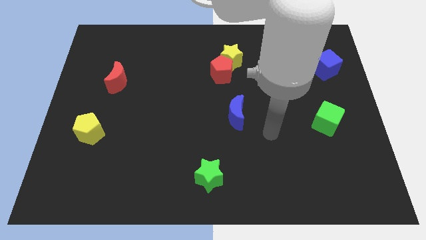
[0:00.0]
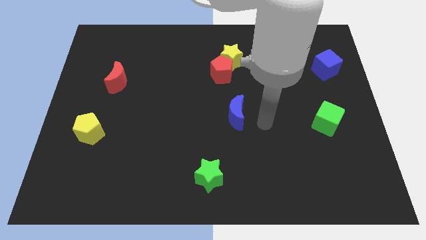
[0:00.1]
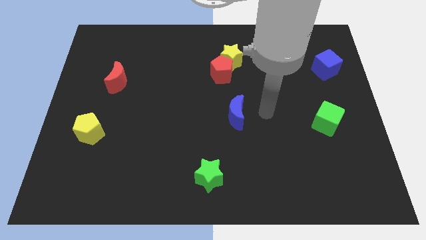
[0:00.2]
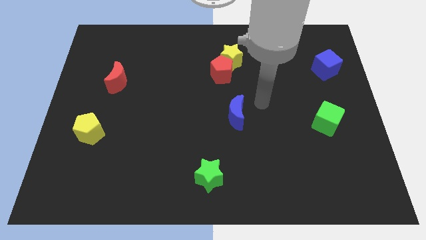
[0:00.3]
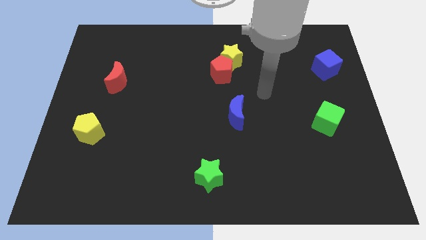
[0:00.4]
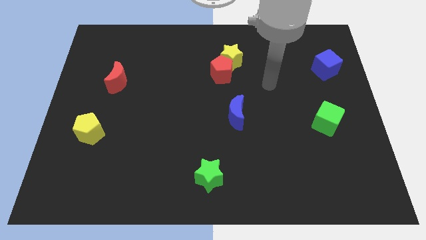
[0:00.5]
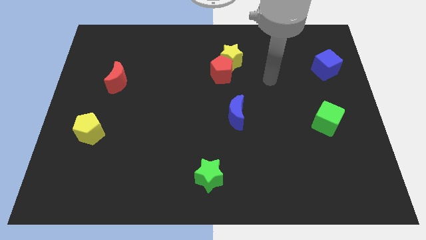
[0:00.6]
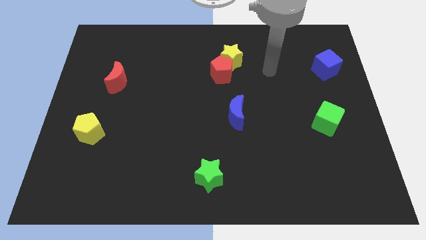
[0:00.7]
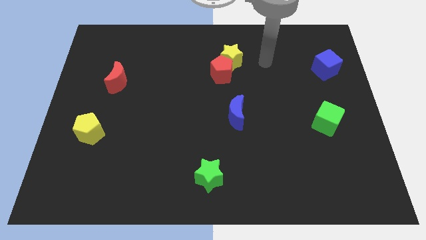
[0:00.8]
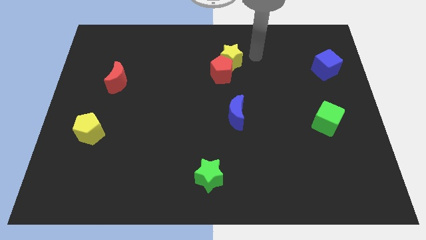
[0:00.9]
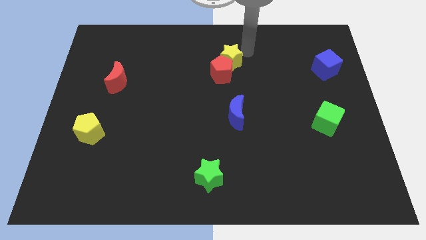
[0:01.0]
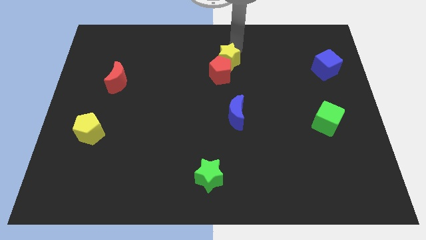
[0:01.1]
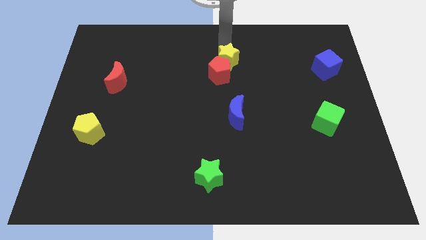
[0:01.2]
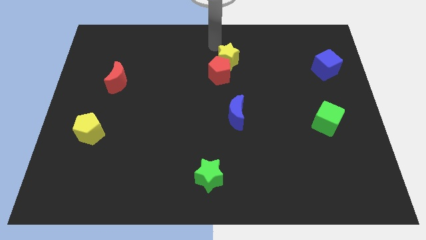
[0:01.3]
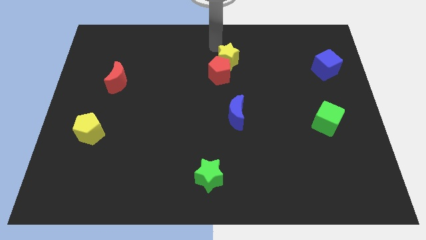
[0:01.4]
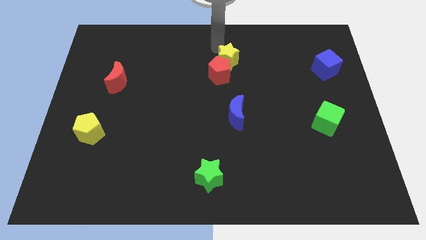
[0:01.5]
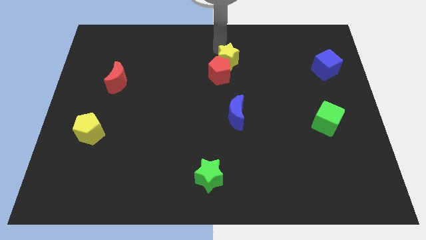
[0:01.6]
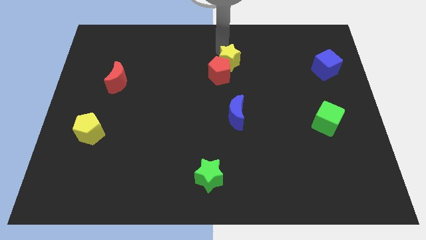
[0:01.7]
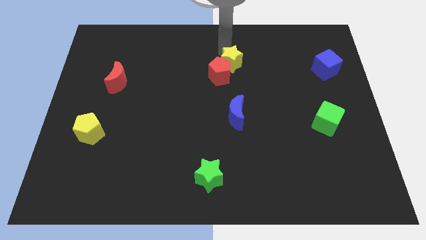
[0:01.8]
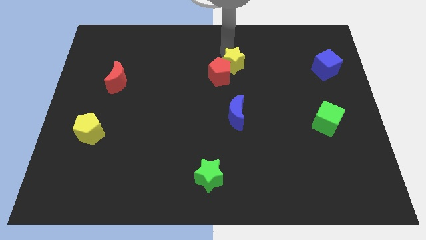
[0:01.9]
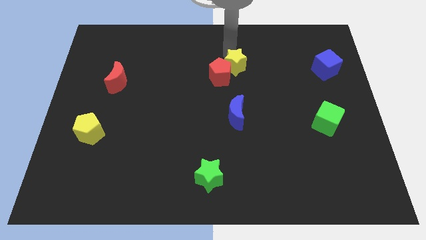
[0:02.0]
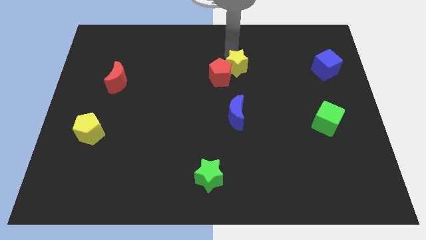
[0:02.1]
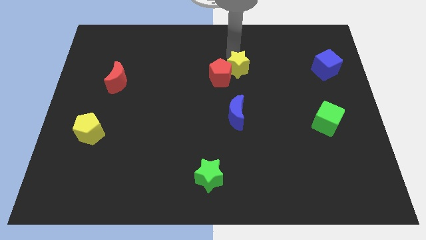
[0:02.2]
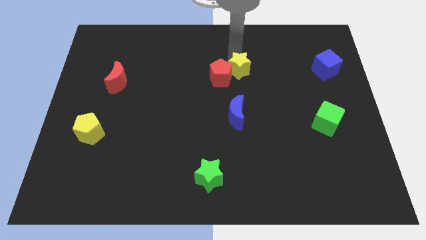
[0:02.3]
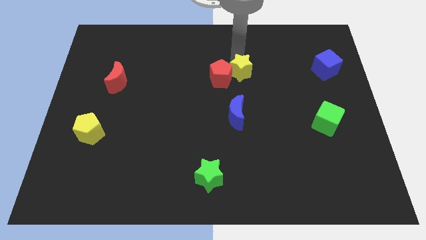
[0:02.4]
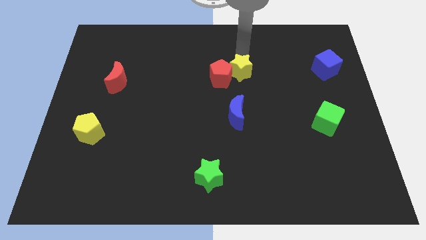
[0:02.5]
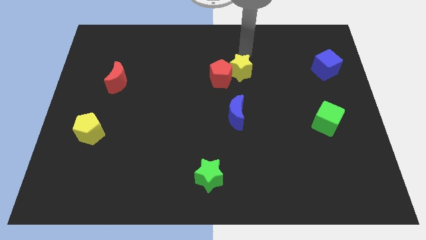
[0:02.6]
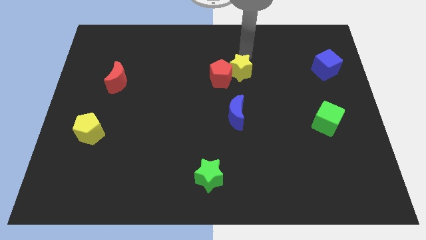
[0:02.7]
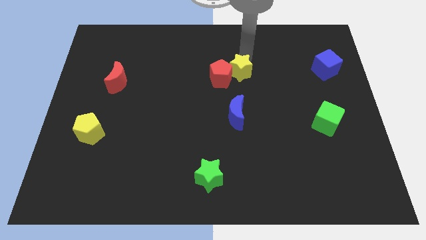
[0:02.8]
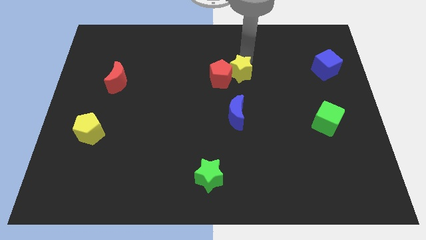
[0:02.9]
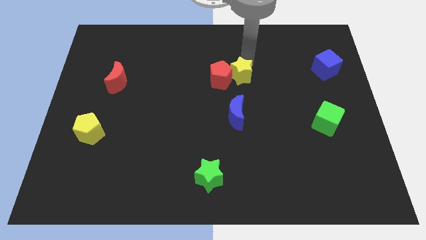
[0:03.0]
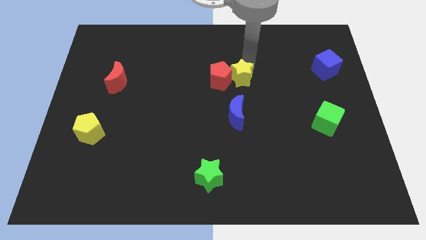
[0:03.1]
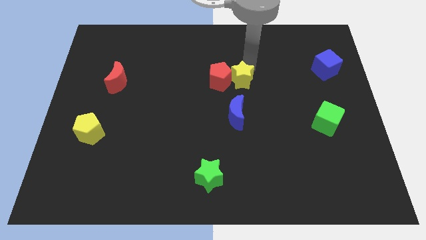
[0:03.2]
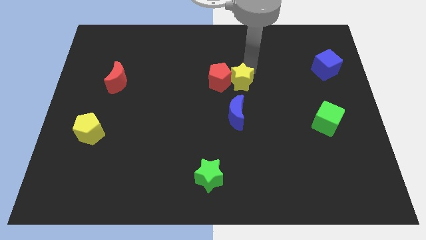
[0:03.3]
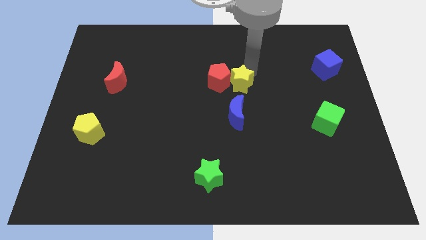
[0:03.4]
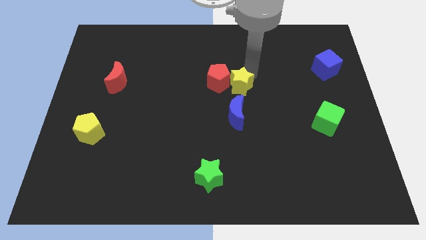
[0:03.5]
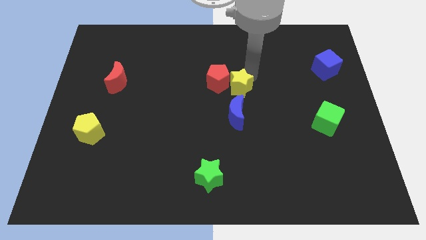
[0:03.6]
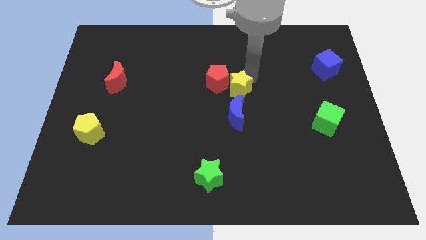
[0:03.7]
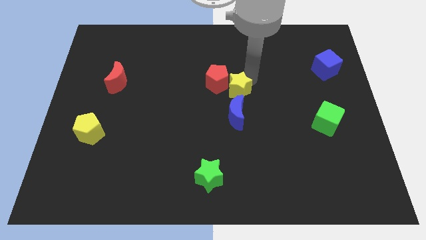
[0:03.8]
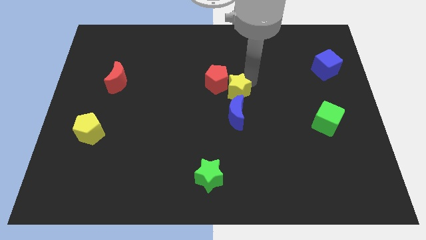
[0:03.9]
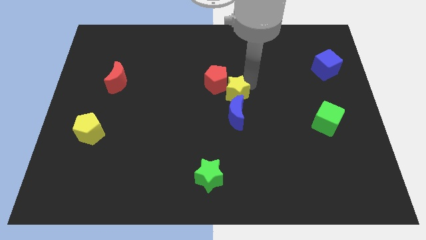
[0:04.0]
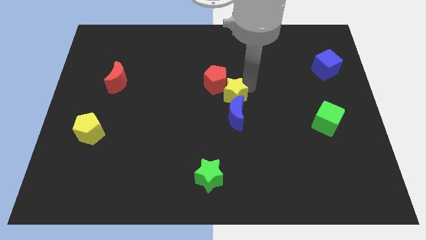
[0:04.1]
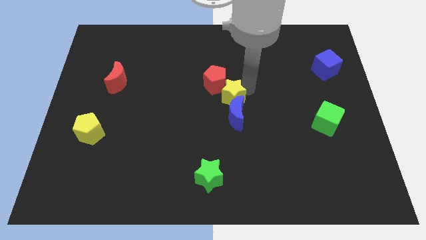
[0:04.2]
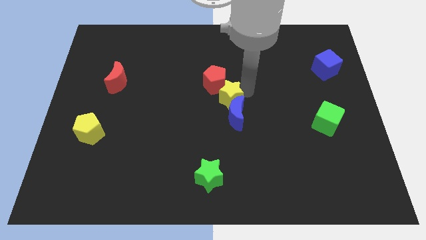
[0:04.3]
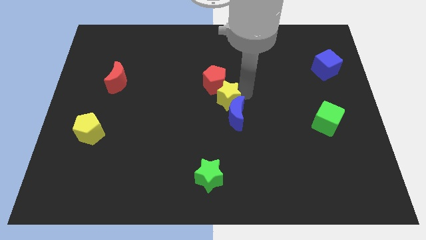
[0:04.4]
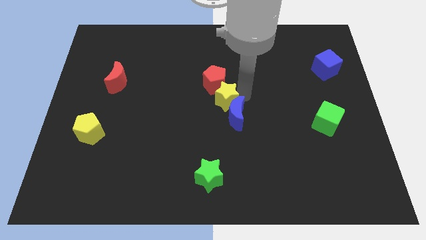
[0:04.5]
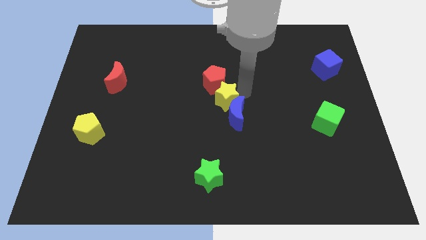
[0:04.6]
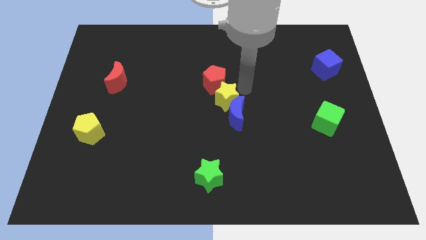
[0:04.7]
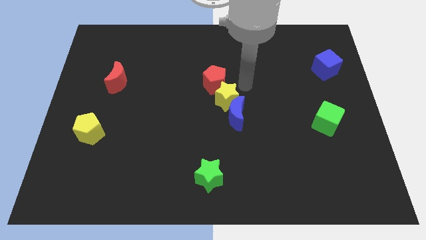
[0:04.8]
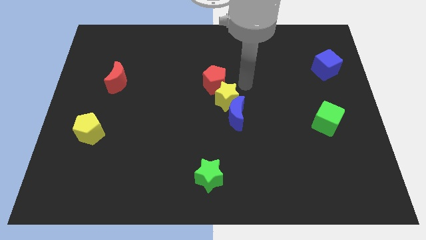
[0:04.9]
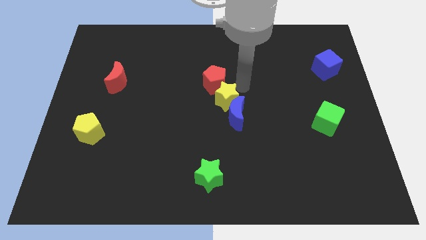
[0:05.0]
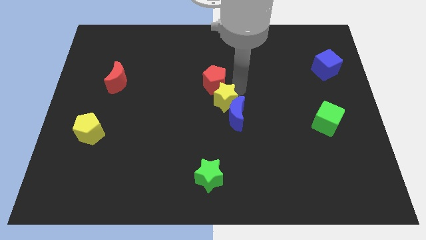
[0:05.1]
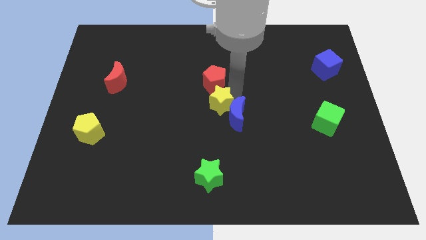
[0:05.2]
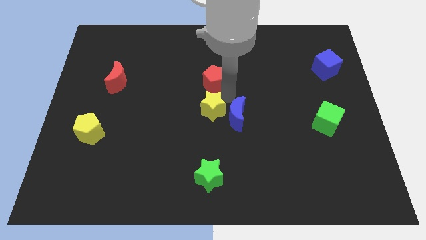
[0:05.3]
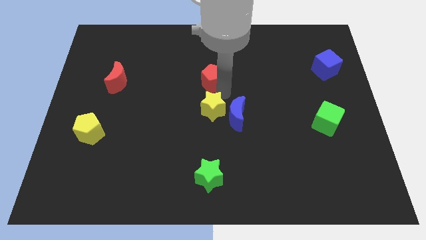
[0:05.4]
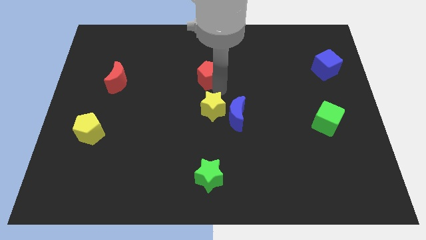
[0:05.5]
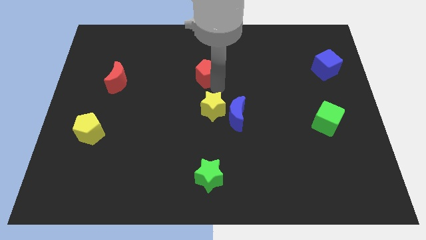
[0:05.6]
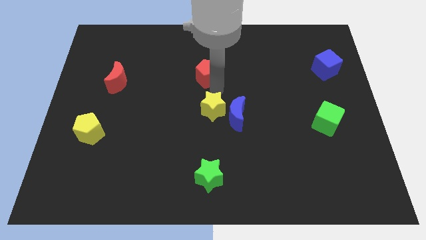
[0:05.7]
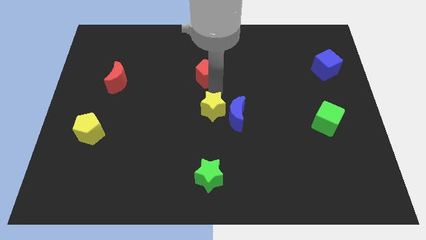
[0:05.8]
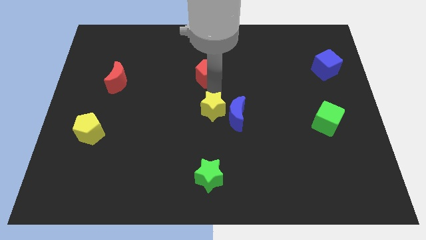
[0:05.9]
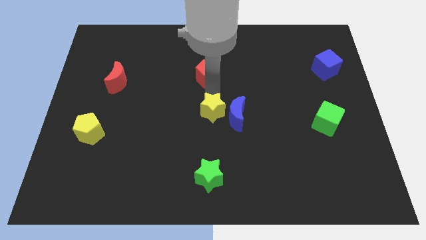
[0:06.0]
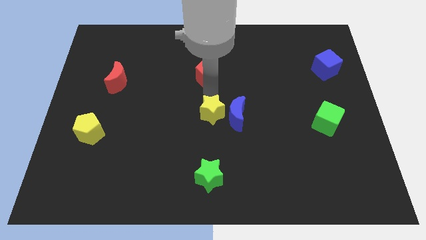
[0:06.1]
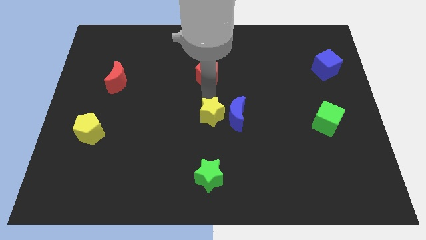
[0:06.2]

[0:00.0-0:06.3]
slide the yellow star to the top side of the green star
